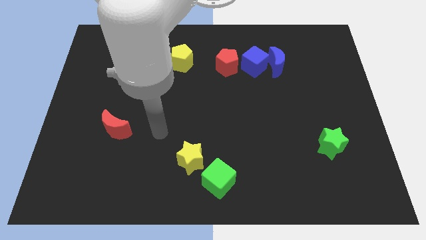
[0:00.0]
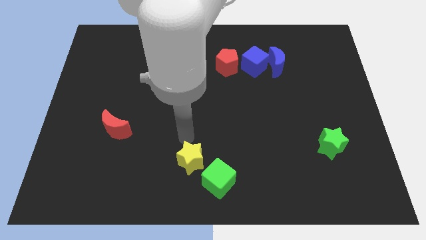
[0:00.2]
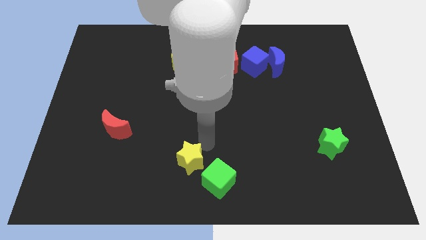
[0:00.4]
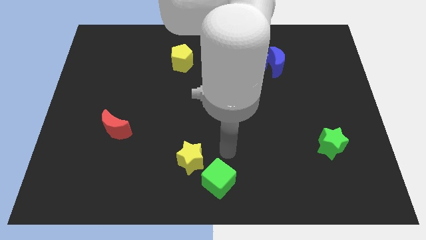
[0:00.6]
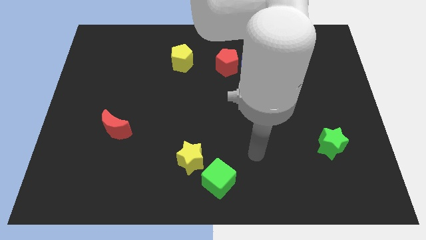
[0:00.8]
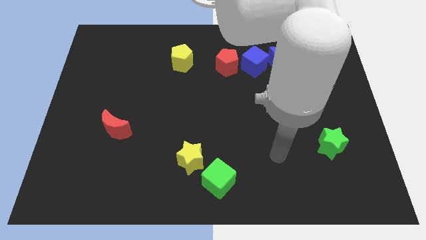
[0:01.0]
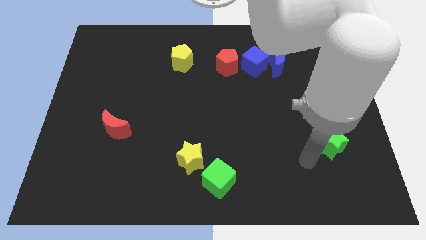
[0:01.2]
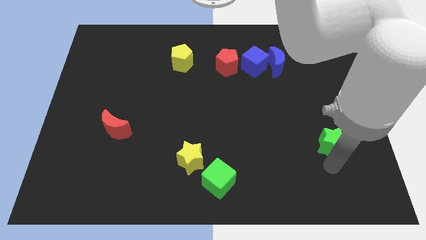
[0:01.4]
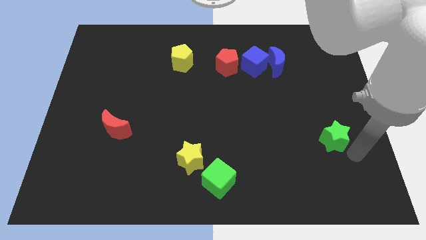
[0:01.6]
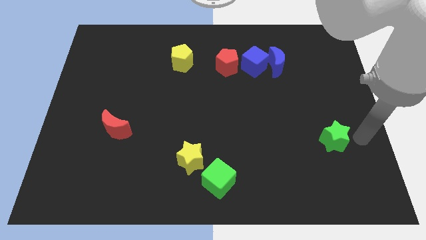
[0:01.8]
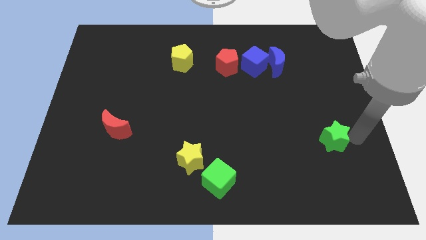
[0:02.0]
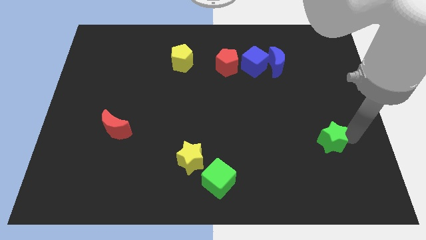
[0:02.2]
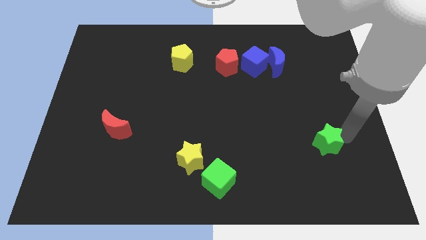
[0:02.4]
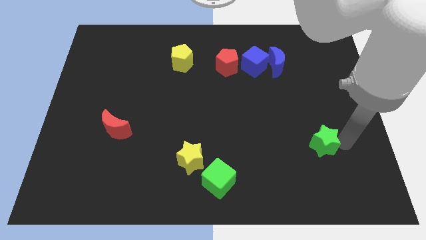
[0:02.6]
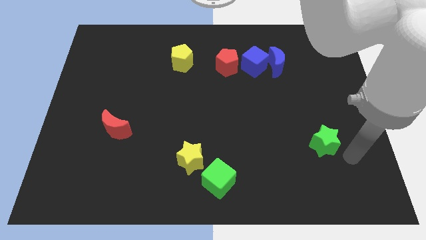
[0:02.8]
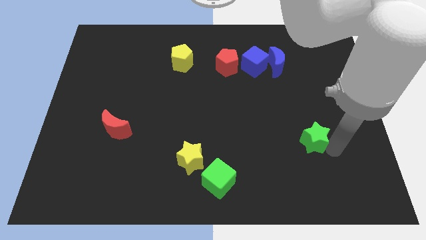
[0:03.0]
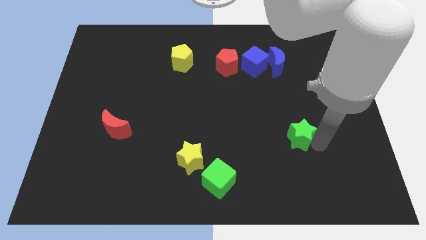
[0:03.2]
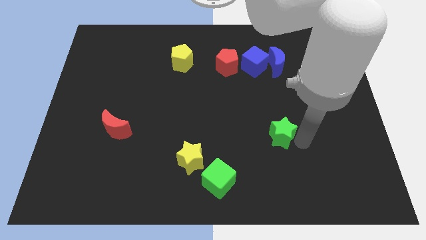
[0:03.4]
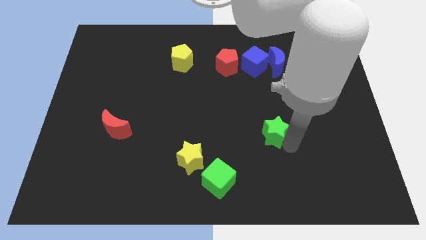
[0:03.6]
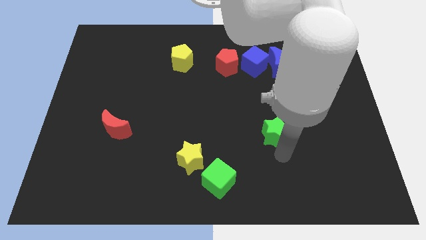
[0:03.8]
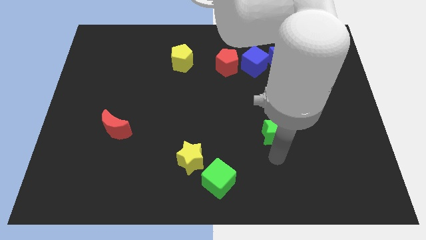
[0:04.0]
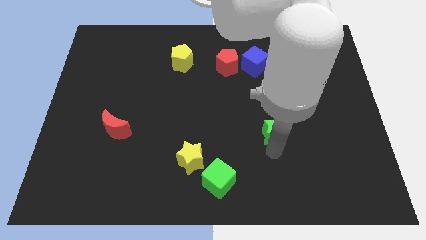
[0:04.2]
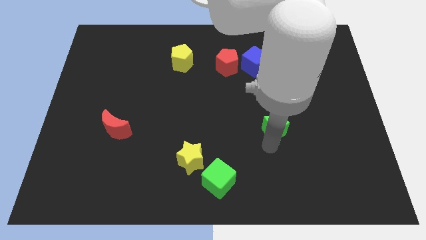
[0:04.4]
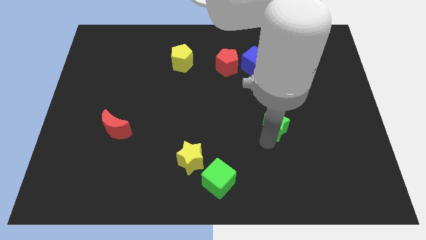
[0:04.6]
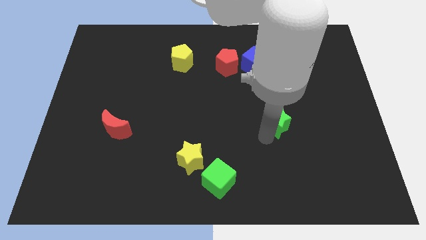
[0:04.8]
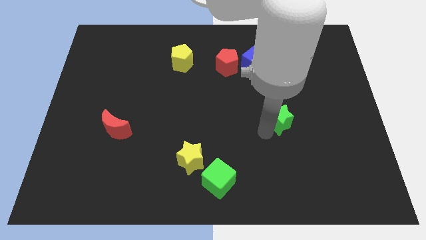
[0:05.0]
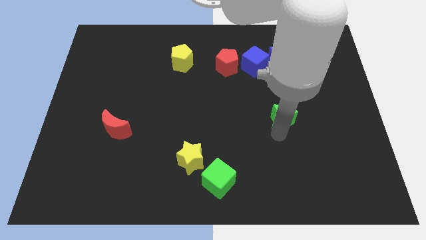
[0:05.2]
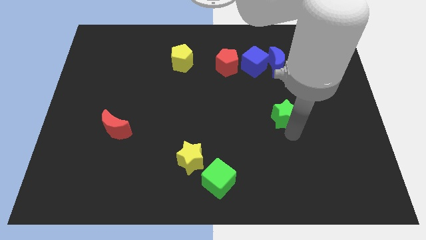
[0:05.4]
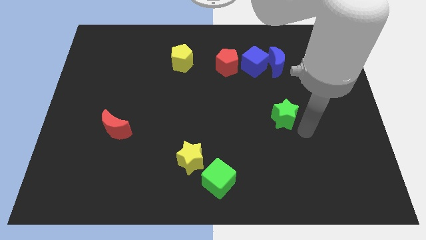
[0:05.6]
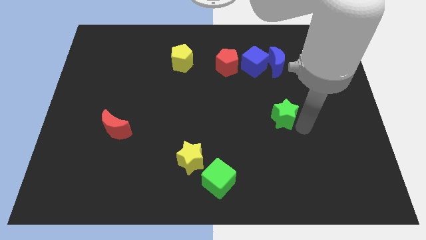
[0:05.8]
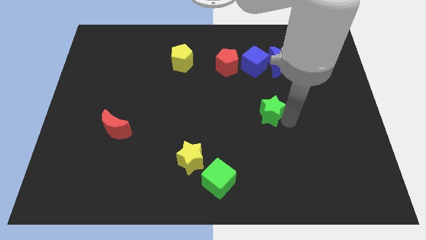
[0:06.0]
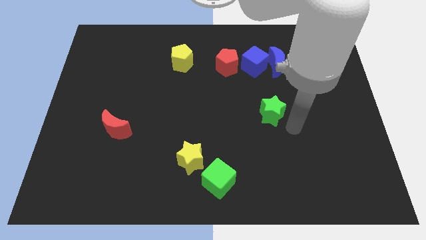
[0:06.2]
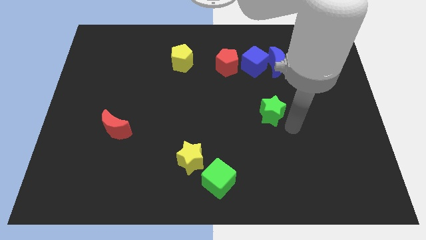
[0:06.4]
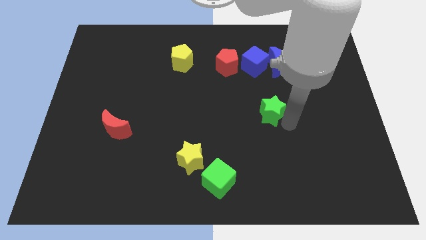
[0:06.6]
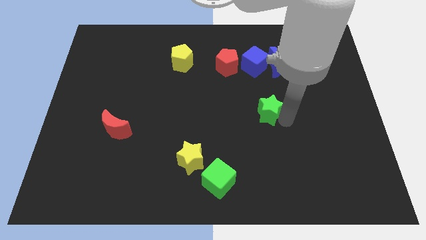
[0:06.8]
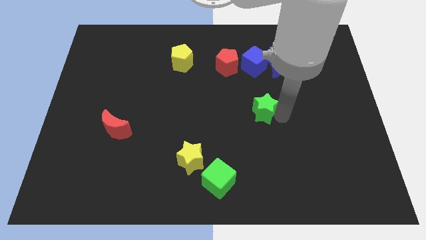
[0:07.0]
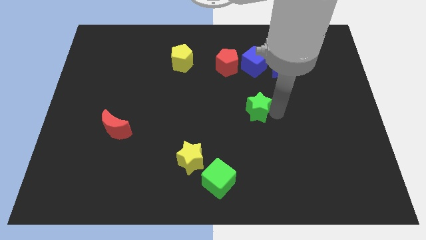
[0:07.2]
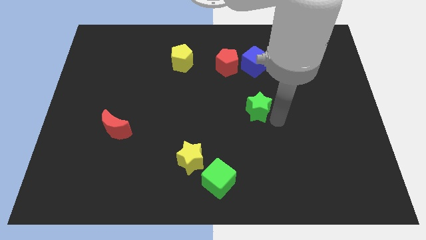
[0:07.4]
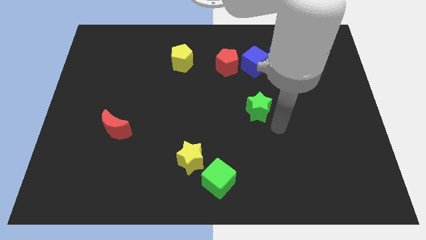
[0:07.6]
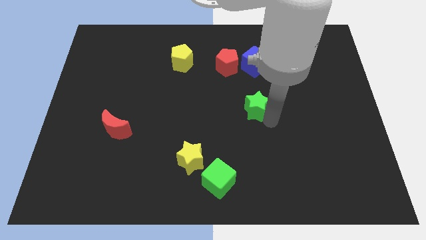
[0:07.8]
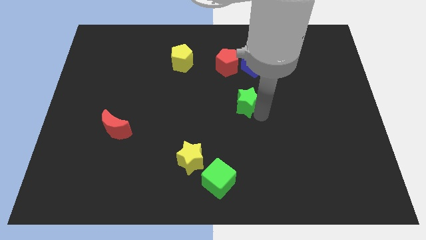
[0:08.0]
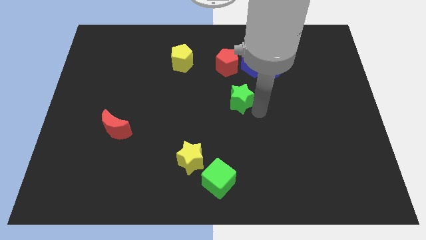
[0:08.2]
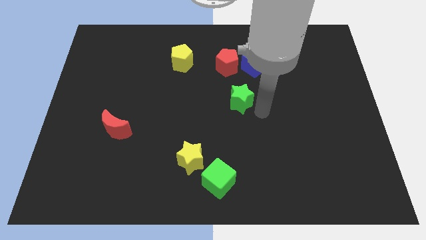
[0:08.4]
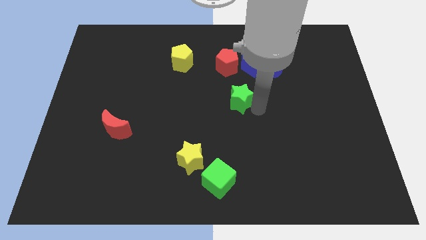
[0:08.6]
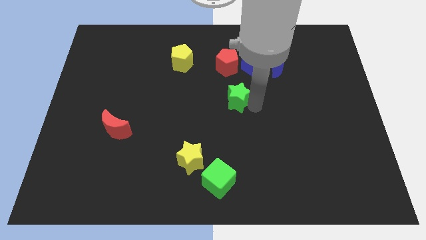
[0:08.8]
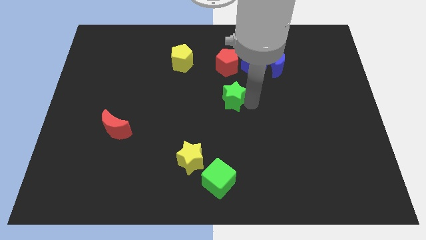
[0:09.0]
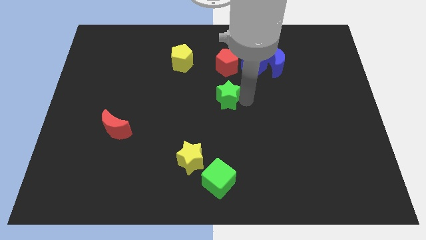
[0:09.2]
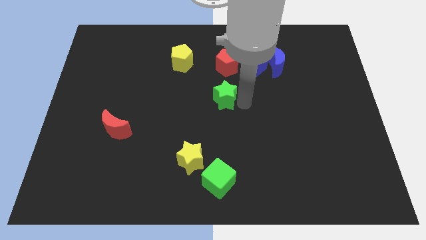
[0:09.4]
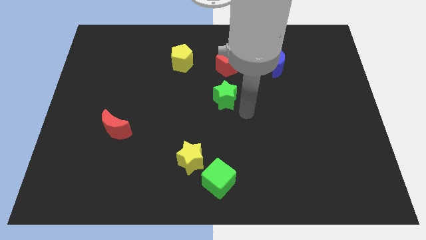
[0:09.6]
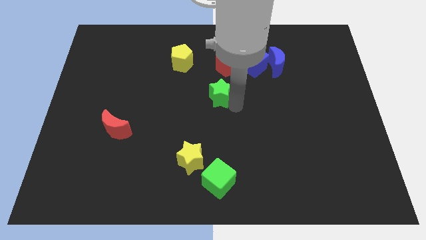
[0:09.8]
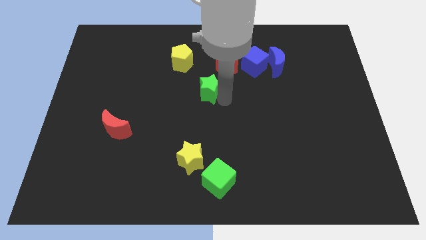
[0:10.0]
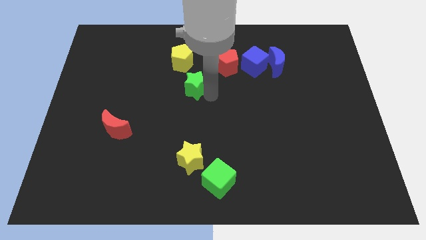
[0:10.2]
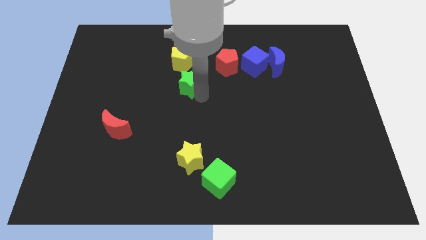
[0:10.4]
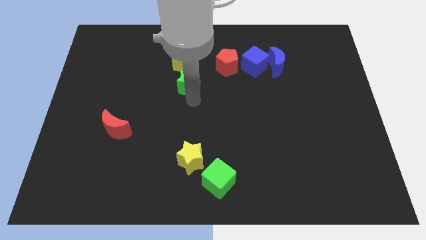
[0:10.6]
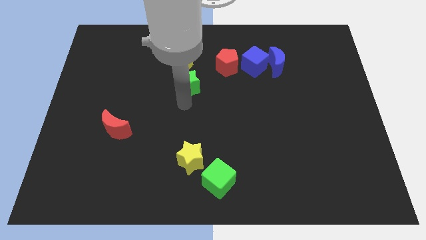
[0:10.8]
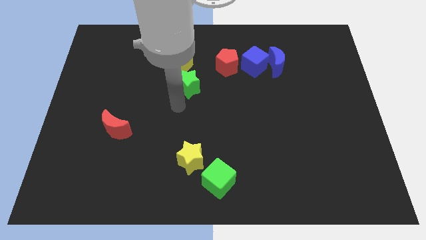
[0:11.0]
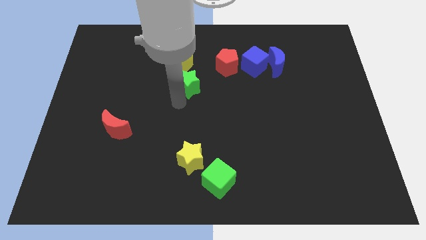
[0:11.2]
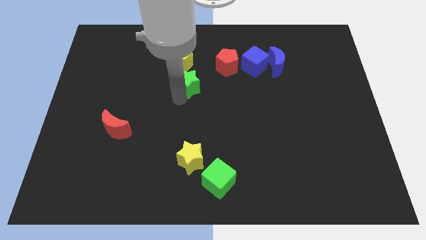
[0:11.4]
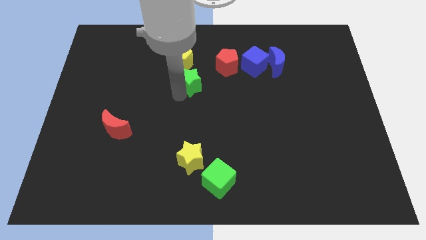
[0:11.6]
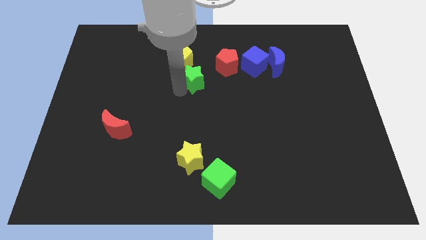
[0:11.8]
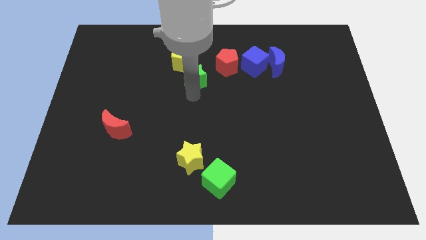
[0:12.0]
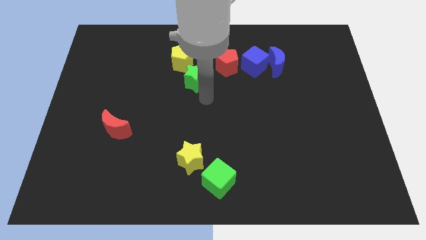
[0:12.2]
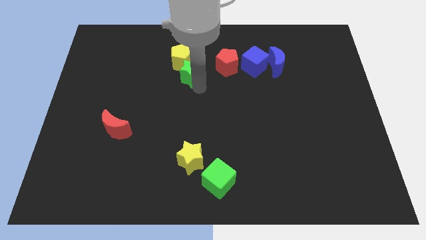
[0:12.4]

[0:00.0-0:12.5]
put the green star next to the yellow pentagon

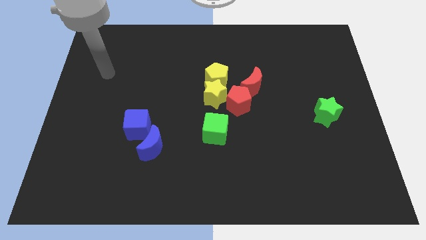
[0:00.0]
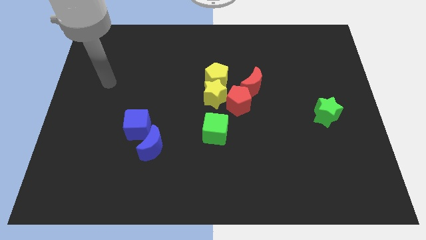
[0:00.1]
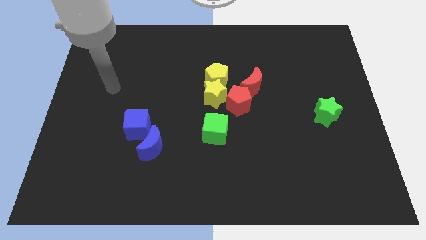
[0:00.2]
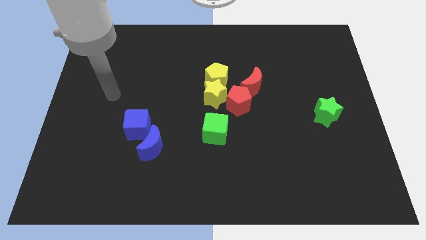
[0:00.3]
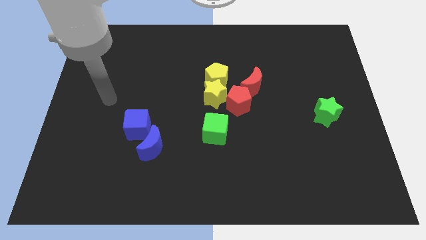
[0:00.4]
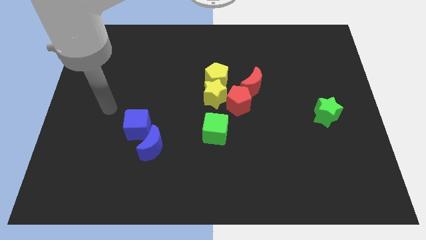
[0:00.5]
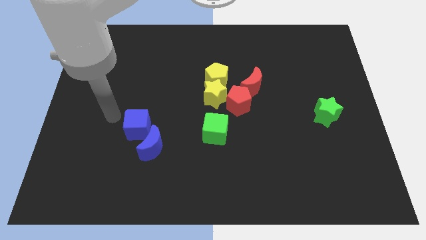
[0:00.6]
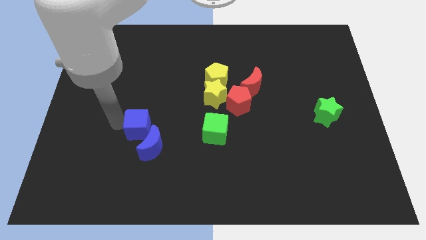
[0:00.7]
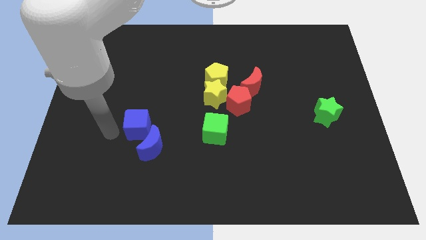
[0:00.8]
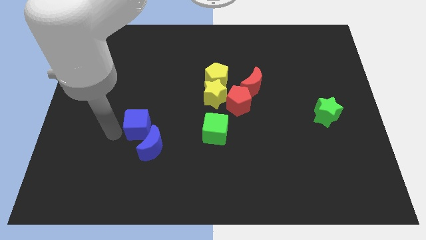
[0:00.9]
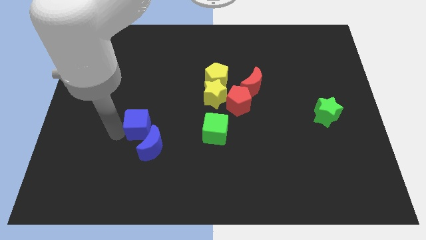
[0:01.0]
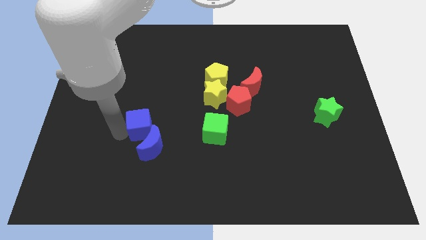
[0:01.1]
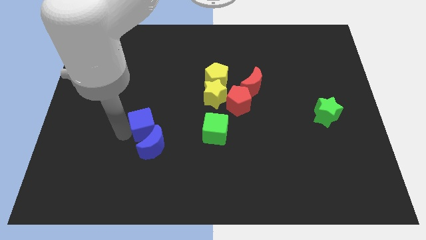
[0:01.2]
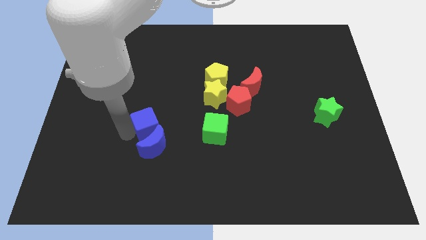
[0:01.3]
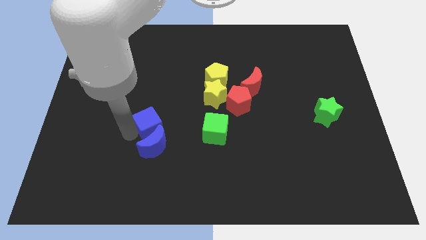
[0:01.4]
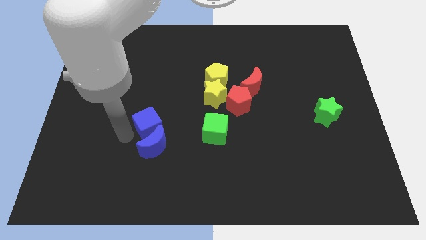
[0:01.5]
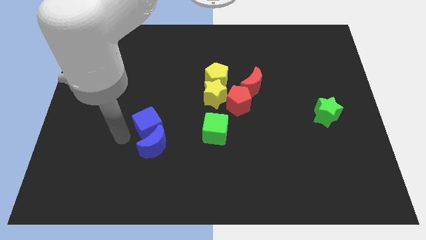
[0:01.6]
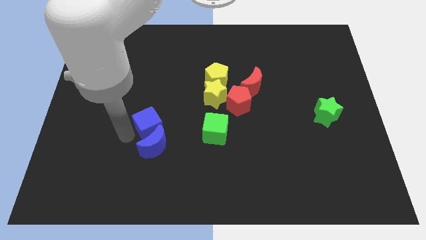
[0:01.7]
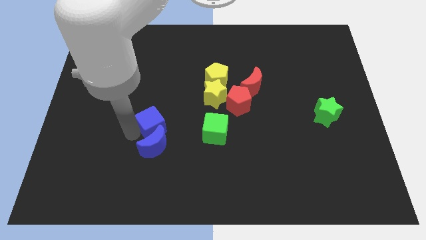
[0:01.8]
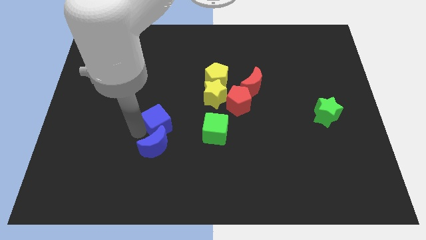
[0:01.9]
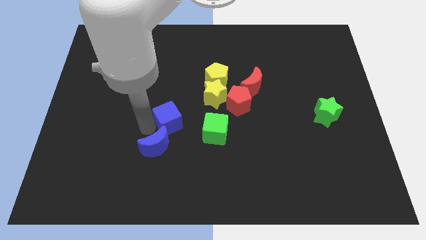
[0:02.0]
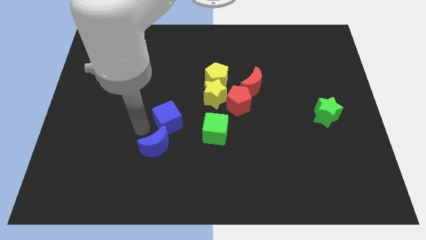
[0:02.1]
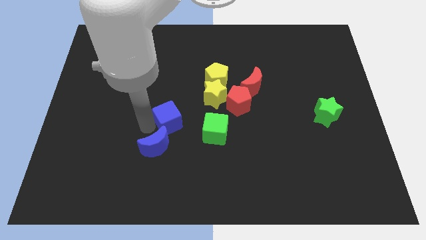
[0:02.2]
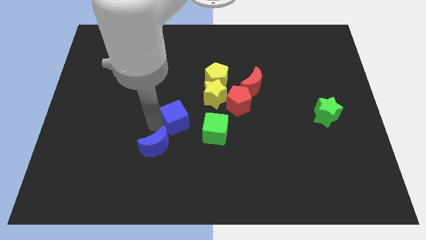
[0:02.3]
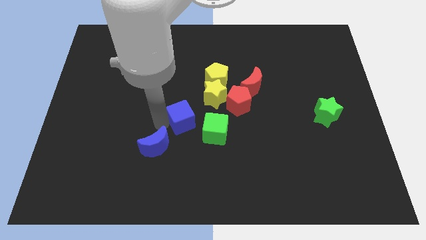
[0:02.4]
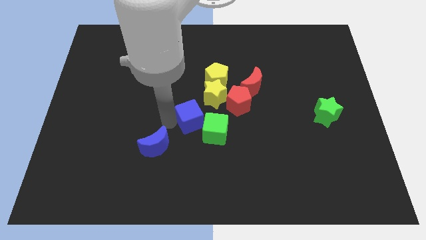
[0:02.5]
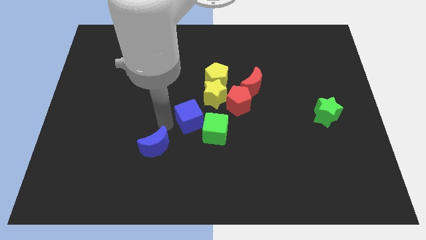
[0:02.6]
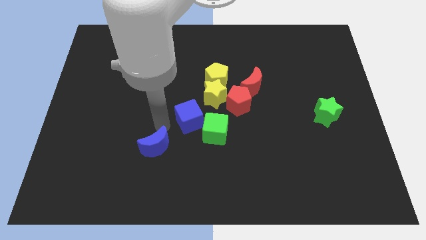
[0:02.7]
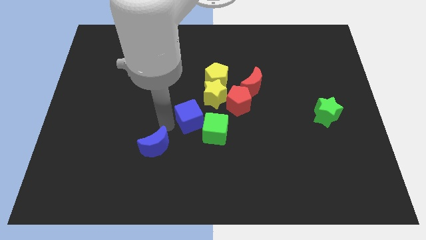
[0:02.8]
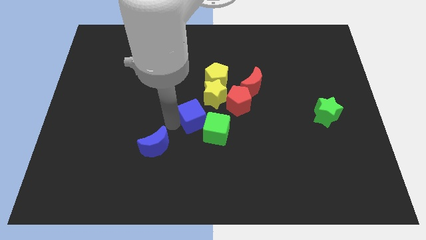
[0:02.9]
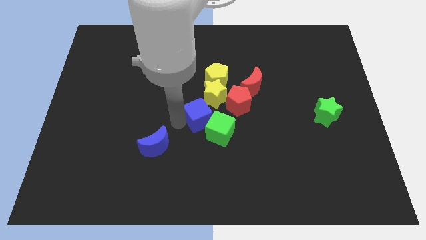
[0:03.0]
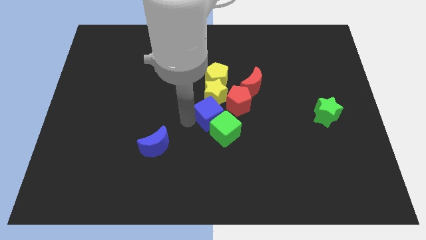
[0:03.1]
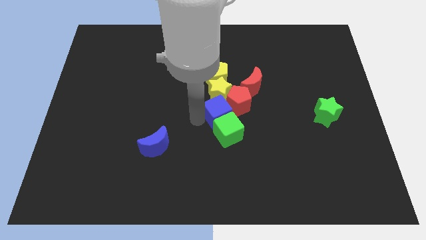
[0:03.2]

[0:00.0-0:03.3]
move the blue cube next to the red pentagon
